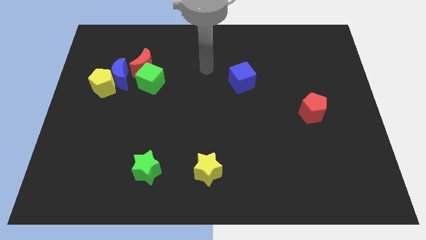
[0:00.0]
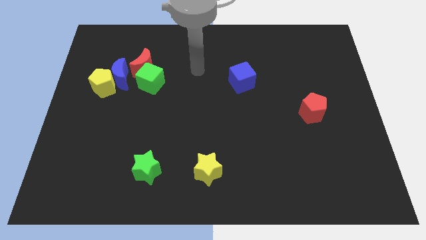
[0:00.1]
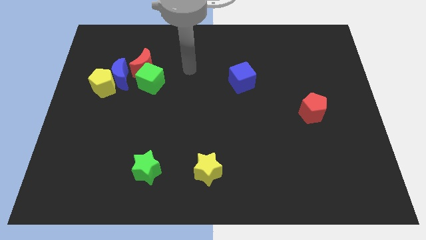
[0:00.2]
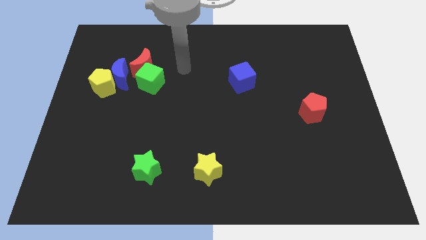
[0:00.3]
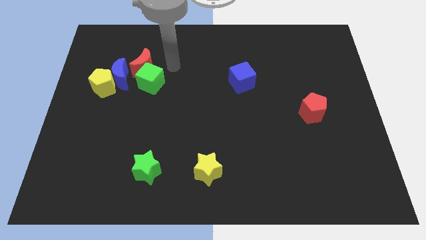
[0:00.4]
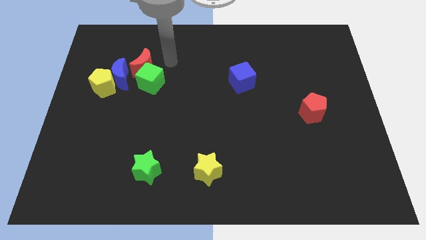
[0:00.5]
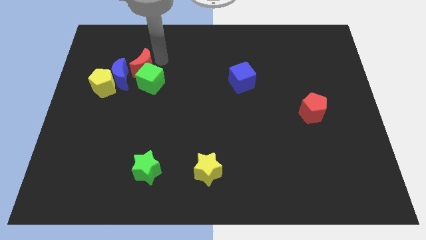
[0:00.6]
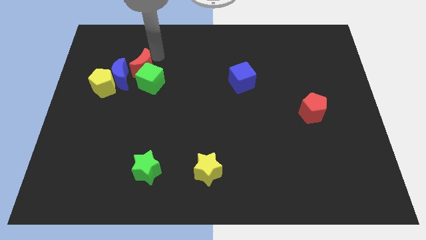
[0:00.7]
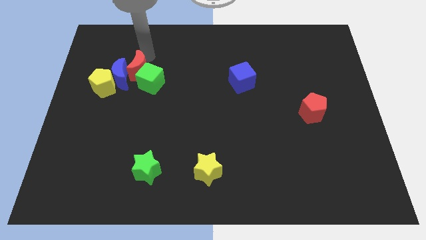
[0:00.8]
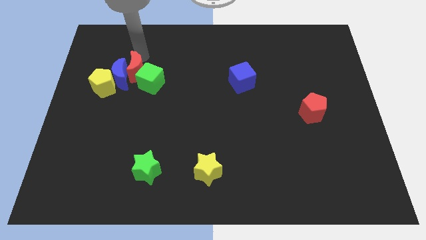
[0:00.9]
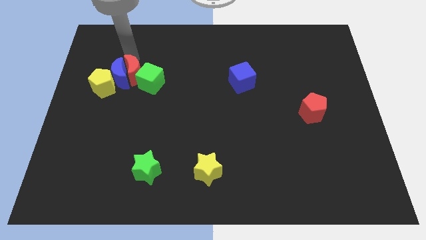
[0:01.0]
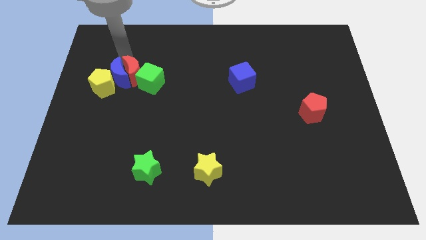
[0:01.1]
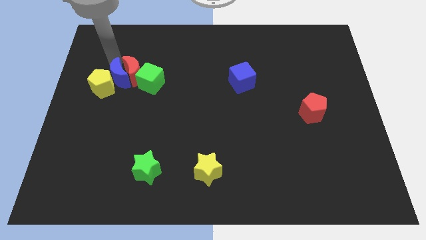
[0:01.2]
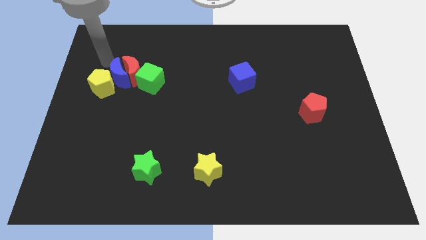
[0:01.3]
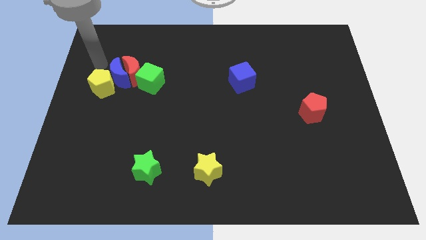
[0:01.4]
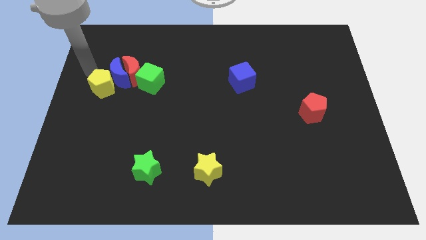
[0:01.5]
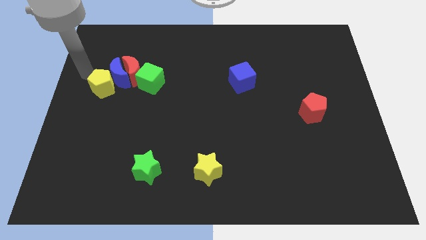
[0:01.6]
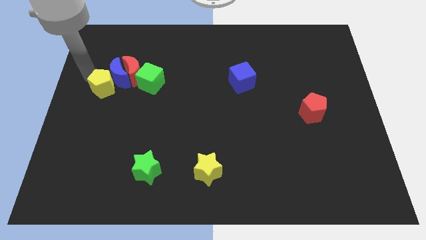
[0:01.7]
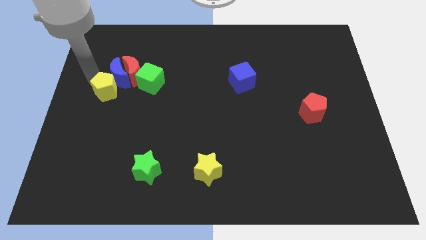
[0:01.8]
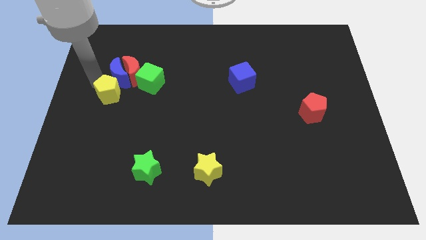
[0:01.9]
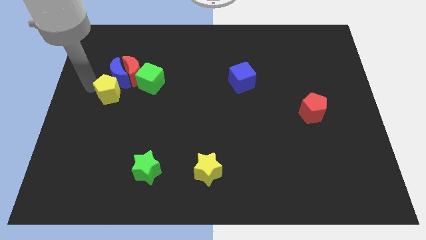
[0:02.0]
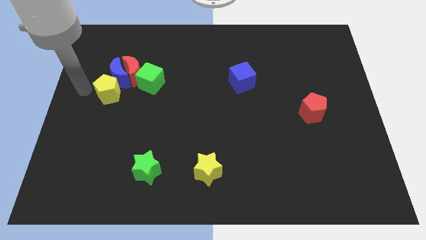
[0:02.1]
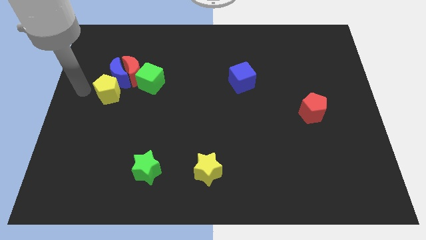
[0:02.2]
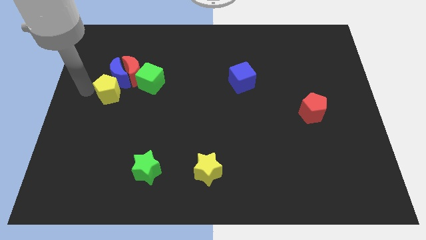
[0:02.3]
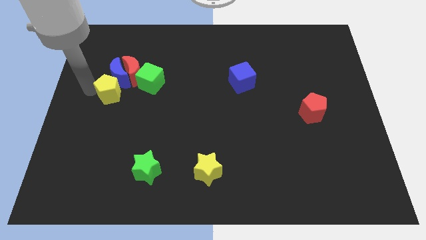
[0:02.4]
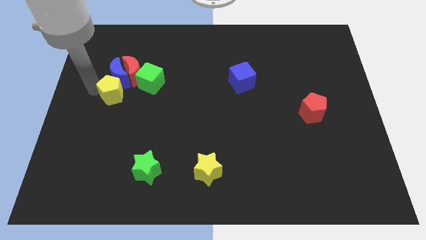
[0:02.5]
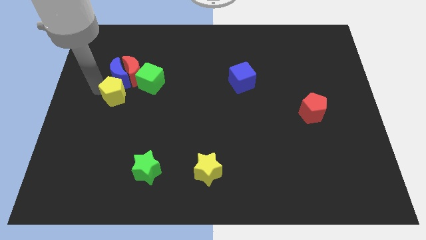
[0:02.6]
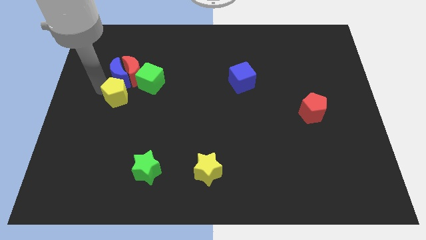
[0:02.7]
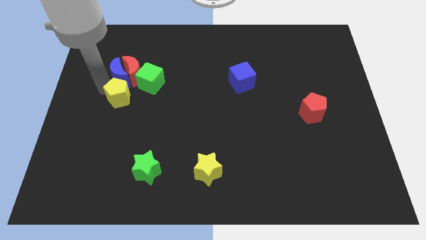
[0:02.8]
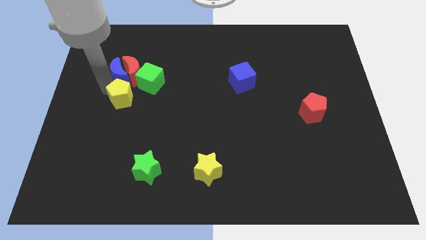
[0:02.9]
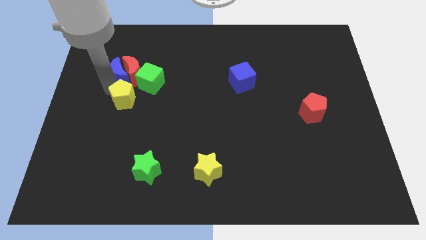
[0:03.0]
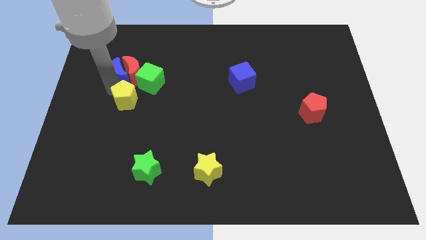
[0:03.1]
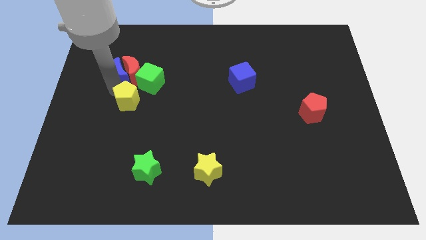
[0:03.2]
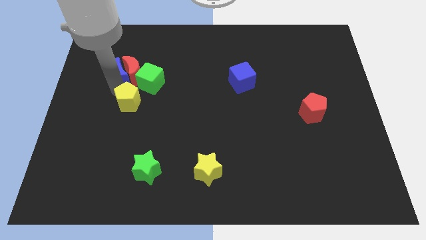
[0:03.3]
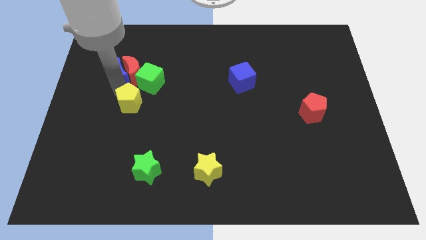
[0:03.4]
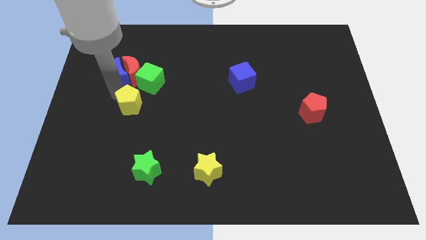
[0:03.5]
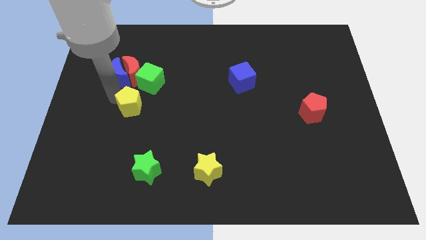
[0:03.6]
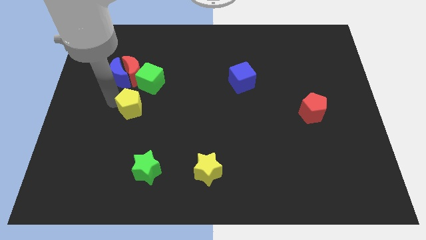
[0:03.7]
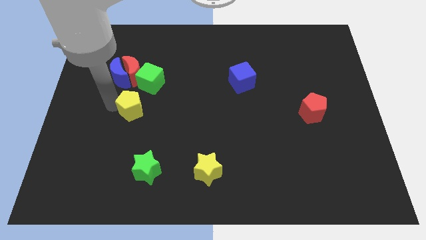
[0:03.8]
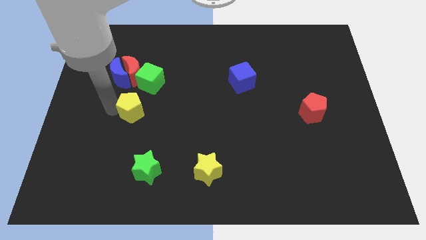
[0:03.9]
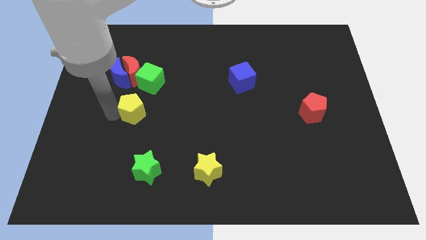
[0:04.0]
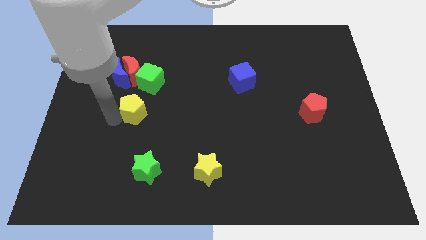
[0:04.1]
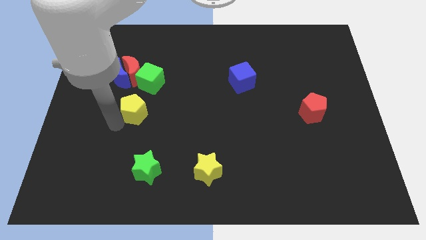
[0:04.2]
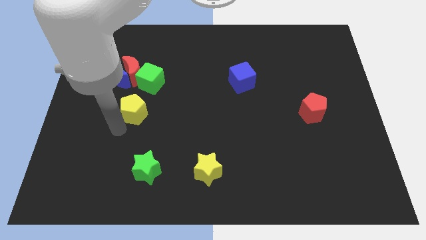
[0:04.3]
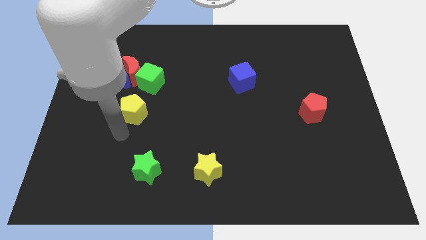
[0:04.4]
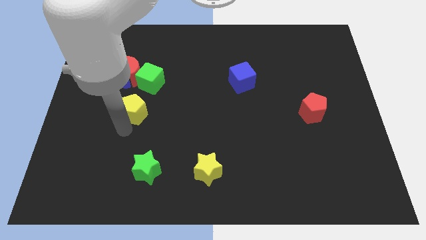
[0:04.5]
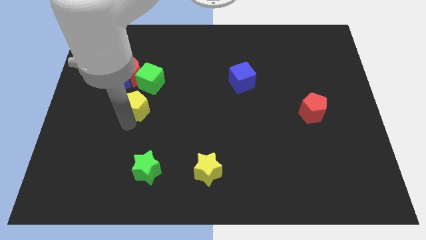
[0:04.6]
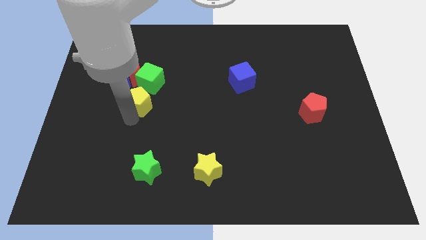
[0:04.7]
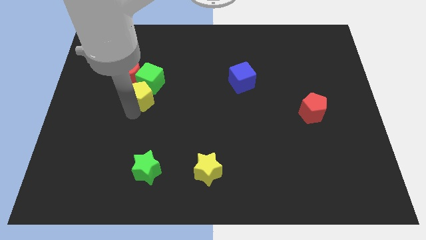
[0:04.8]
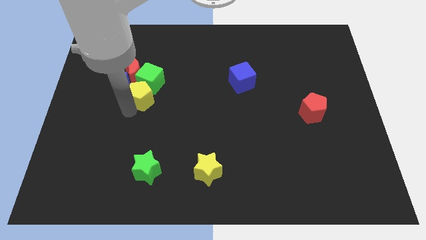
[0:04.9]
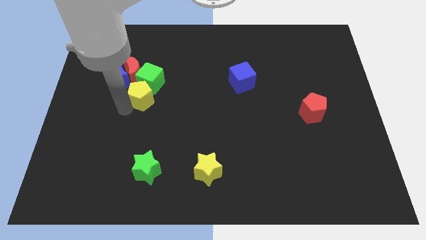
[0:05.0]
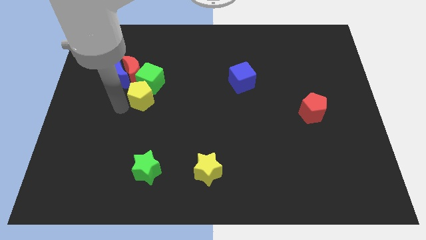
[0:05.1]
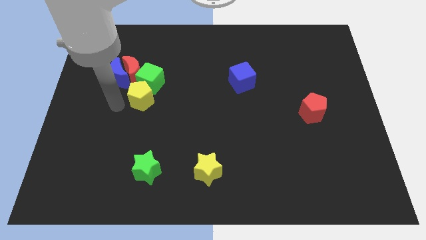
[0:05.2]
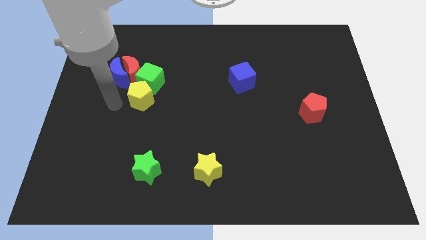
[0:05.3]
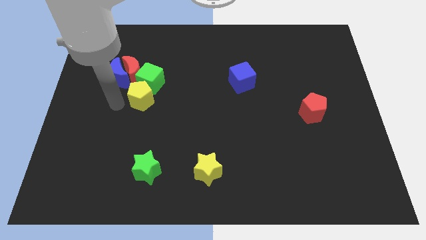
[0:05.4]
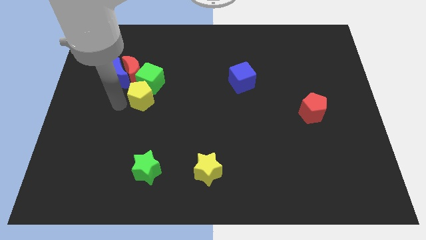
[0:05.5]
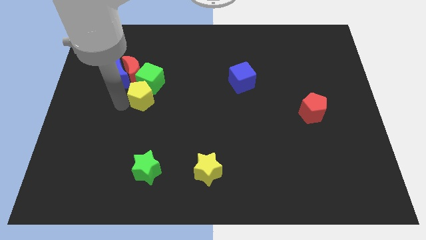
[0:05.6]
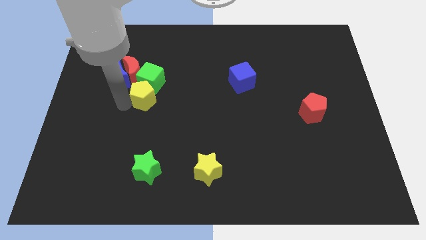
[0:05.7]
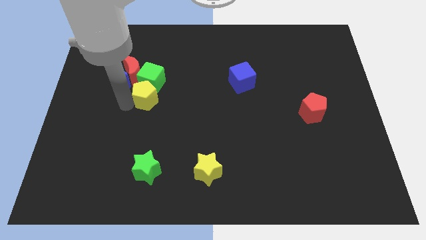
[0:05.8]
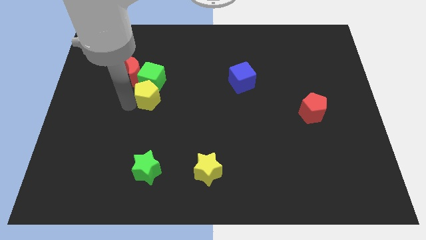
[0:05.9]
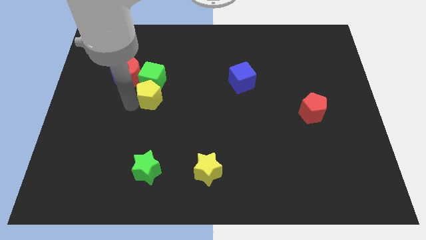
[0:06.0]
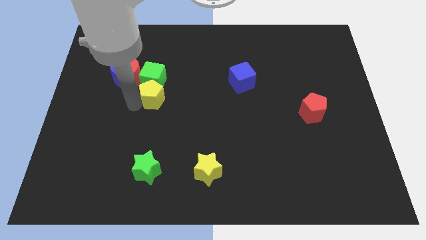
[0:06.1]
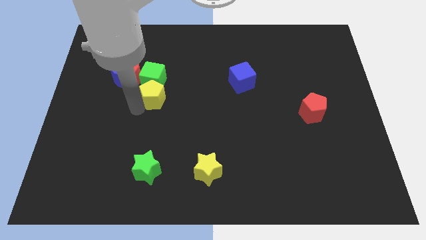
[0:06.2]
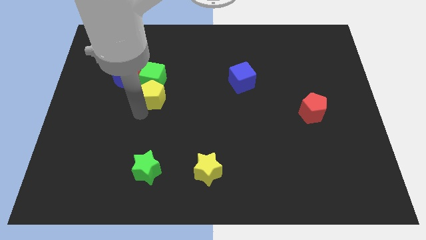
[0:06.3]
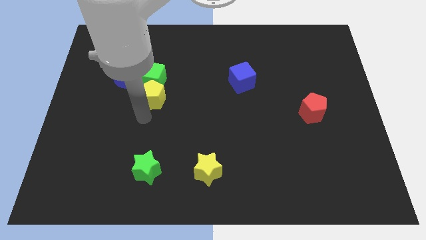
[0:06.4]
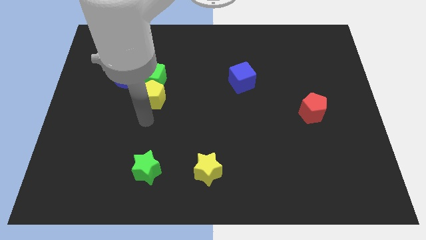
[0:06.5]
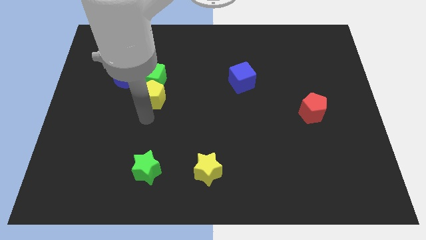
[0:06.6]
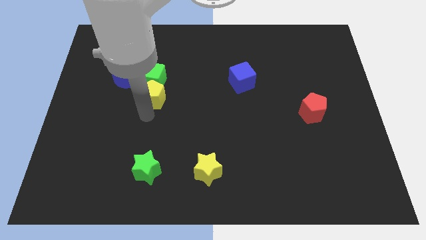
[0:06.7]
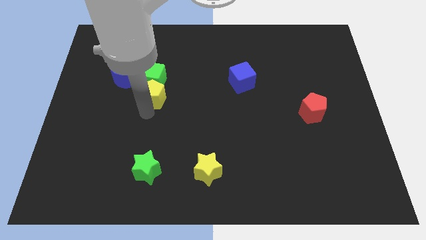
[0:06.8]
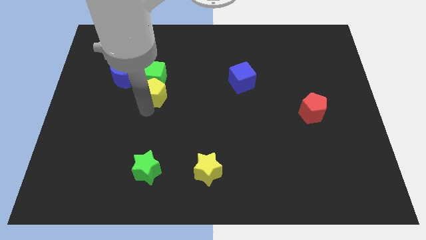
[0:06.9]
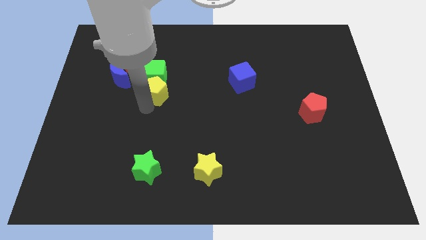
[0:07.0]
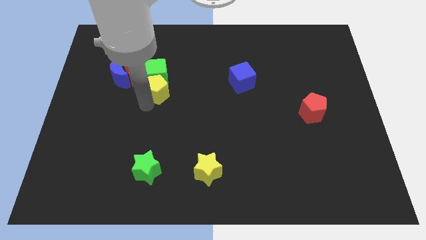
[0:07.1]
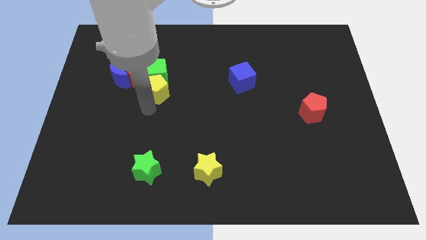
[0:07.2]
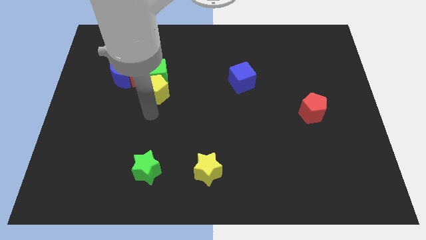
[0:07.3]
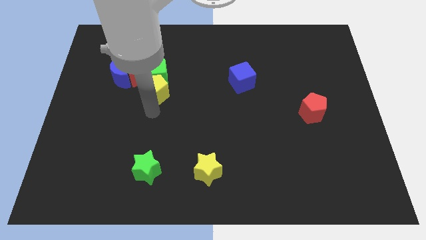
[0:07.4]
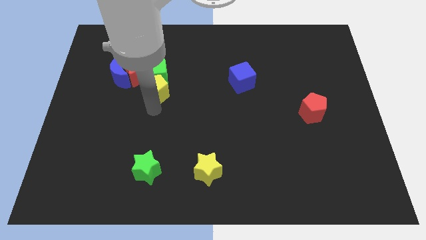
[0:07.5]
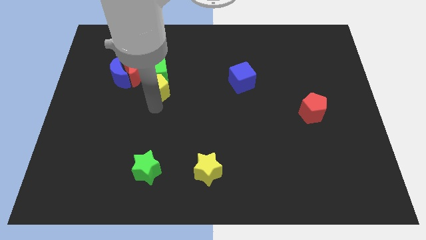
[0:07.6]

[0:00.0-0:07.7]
move the yellow pentagon right of the blue moon
